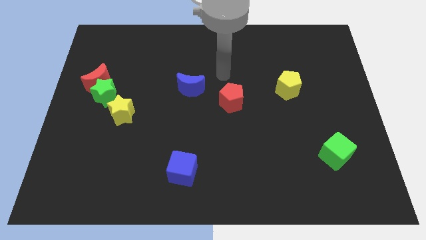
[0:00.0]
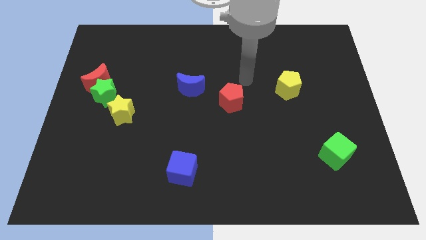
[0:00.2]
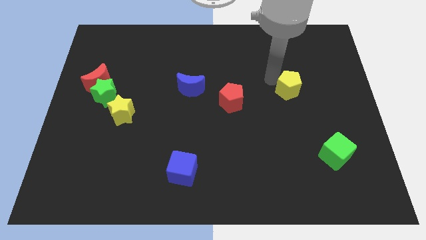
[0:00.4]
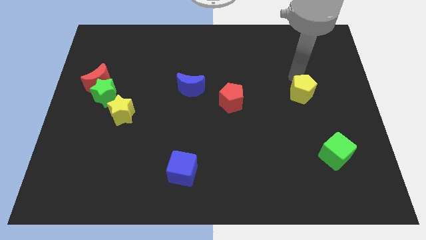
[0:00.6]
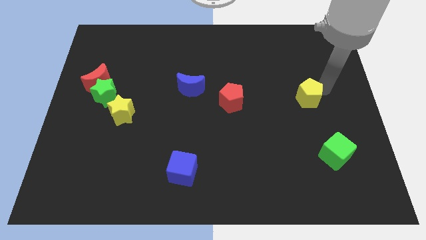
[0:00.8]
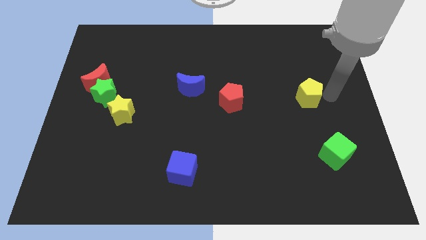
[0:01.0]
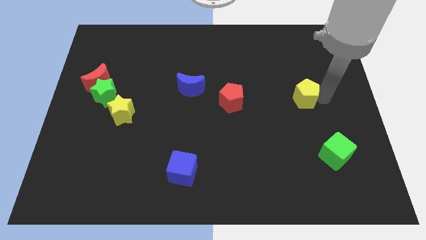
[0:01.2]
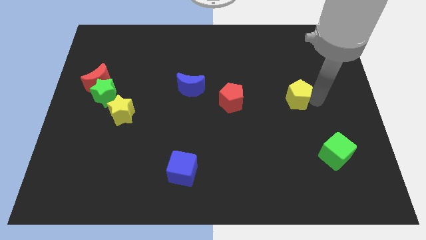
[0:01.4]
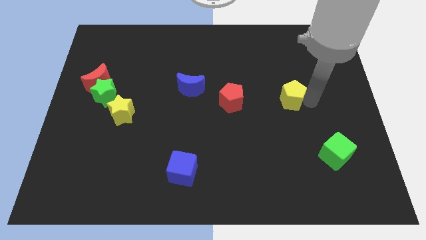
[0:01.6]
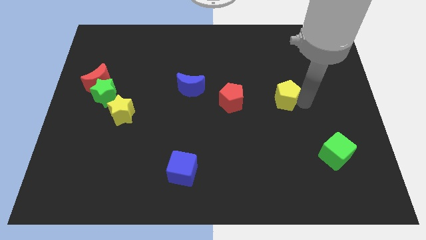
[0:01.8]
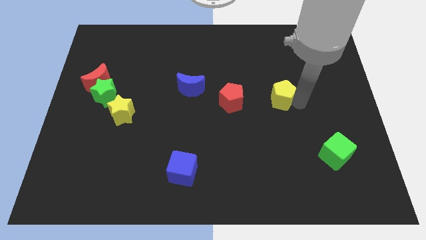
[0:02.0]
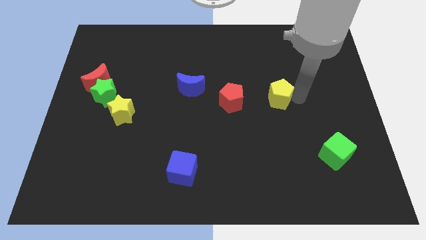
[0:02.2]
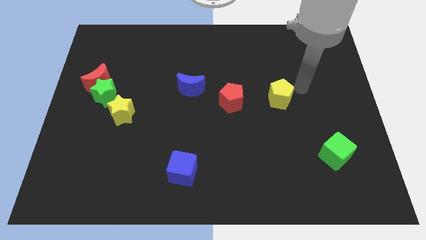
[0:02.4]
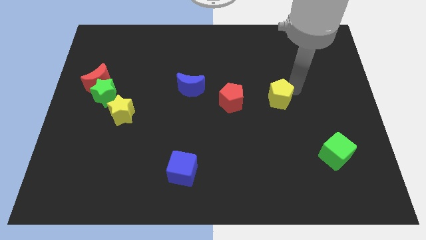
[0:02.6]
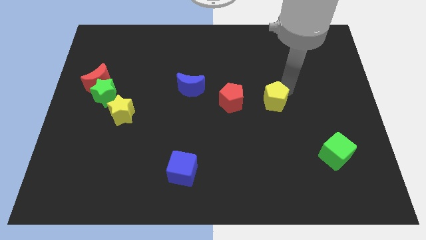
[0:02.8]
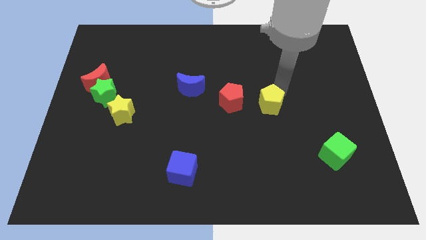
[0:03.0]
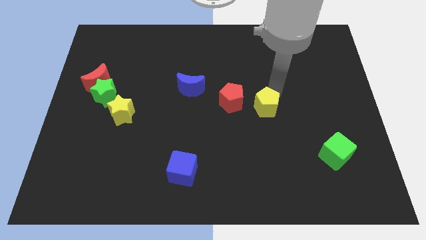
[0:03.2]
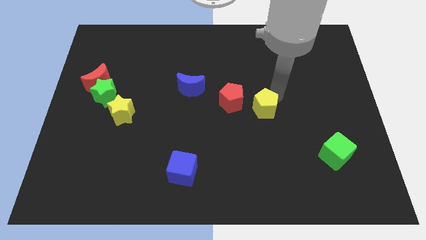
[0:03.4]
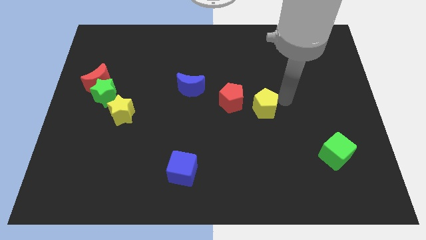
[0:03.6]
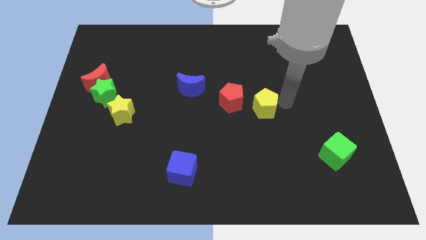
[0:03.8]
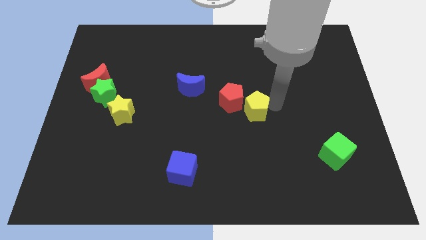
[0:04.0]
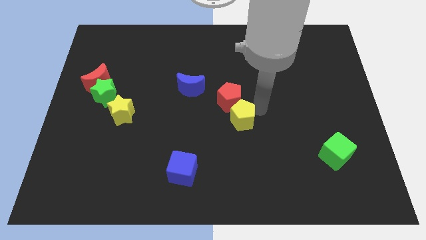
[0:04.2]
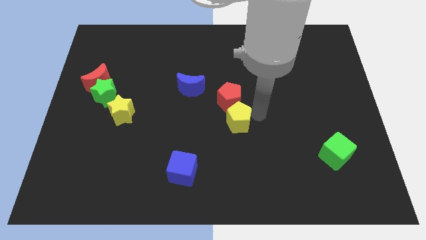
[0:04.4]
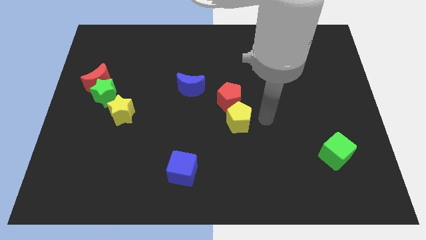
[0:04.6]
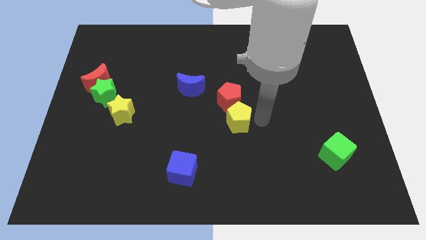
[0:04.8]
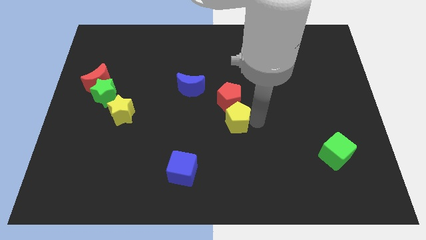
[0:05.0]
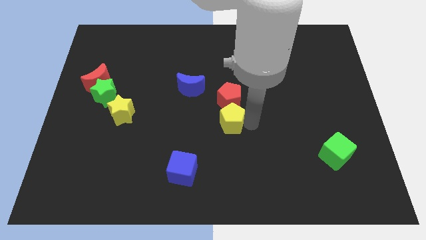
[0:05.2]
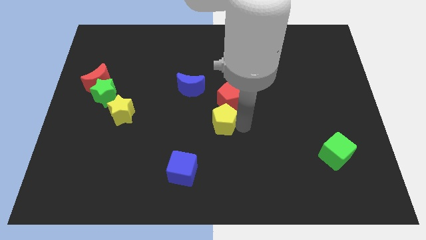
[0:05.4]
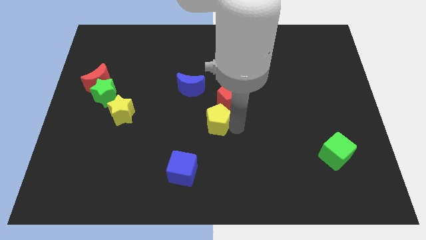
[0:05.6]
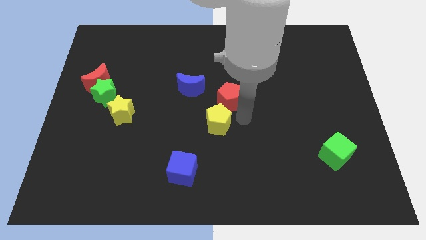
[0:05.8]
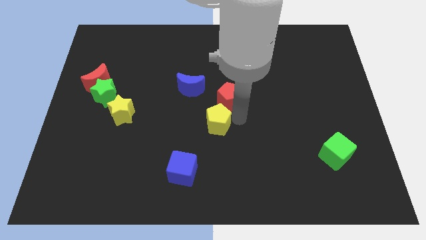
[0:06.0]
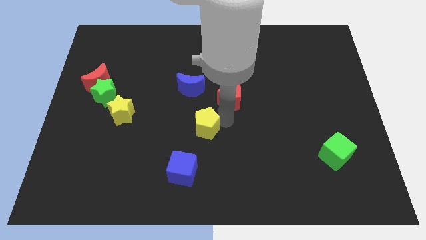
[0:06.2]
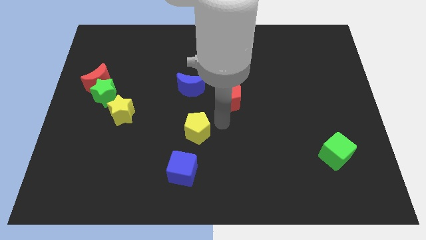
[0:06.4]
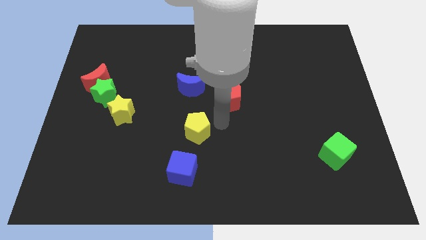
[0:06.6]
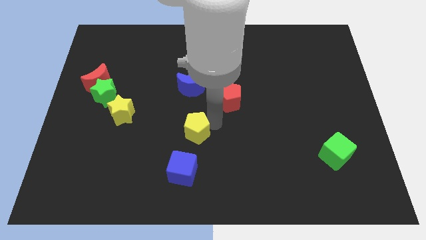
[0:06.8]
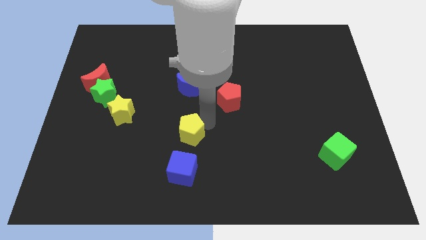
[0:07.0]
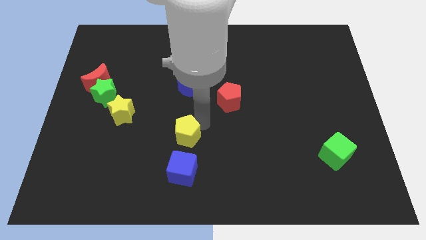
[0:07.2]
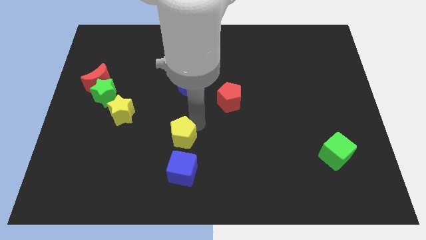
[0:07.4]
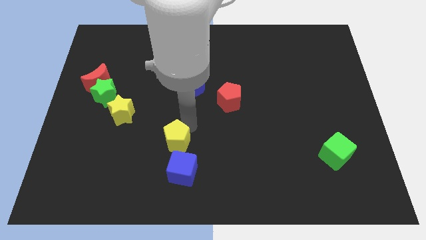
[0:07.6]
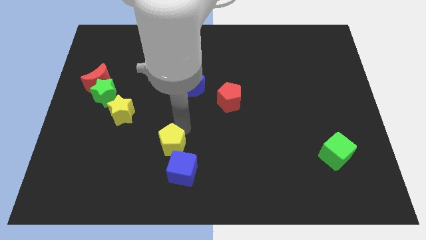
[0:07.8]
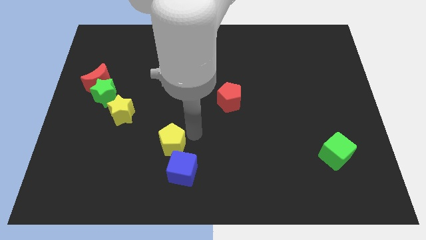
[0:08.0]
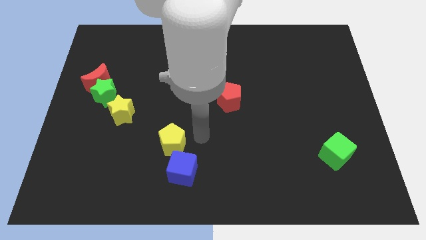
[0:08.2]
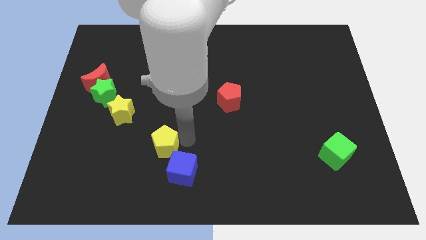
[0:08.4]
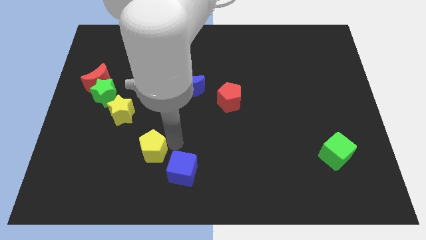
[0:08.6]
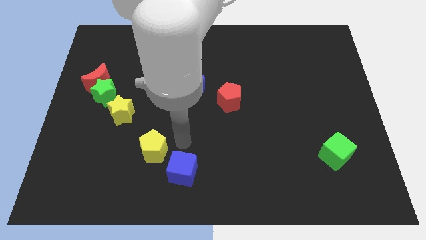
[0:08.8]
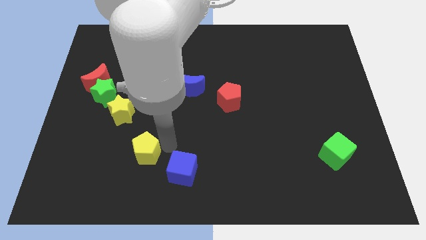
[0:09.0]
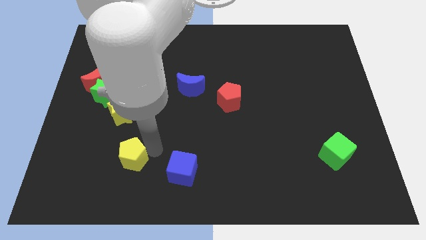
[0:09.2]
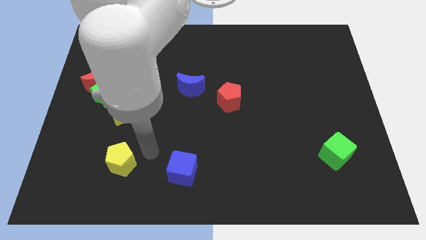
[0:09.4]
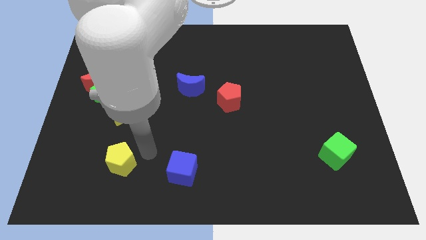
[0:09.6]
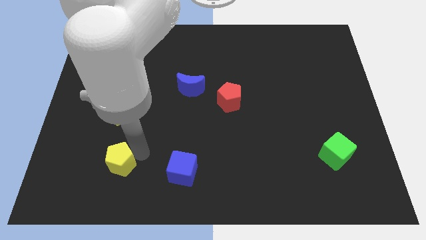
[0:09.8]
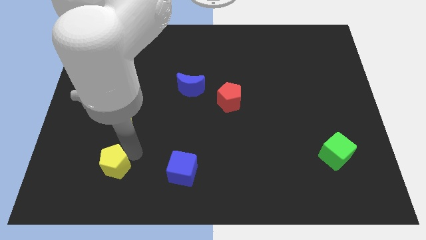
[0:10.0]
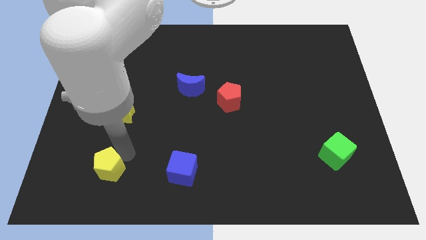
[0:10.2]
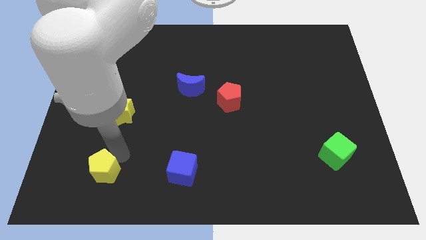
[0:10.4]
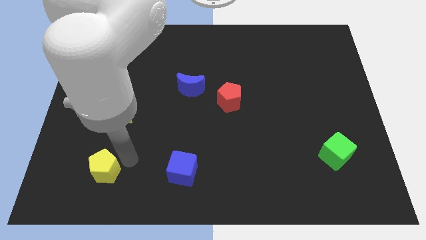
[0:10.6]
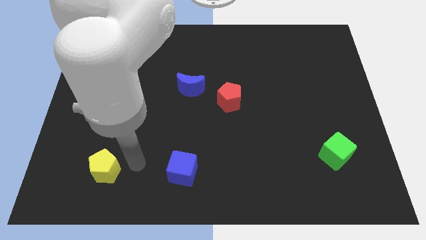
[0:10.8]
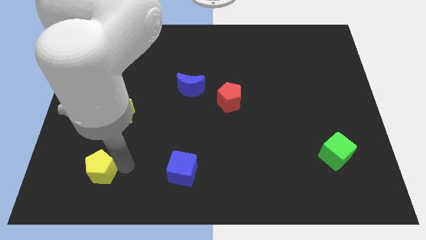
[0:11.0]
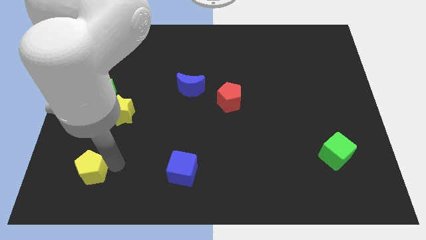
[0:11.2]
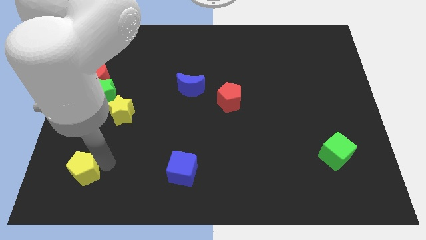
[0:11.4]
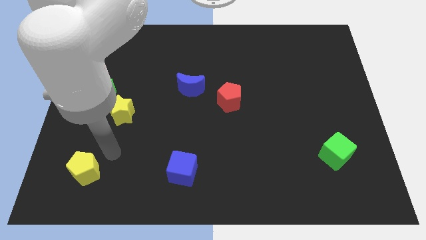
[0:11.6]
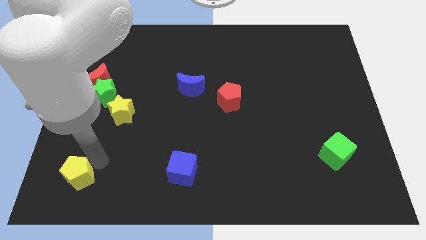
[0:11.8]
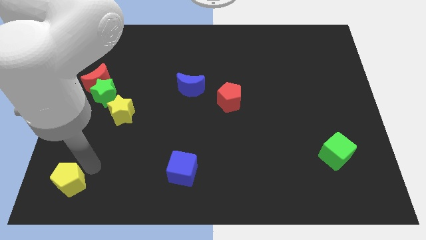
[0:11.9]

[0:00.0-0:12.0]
put the yellow pentagon to the bottom left of the board
